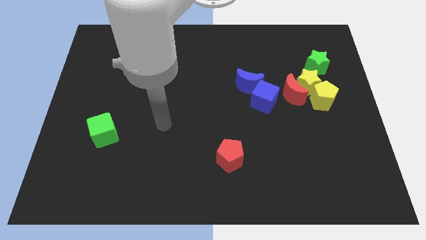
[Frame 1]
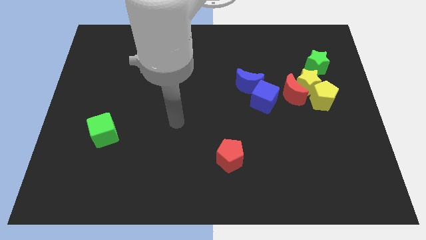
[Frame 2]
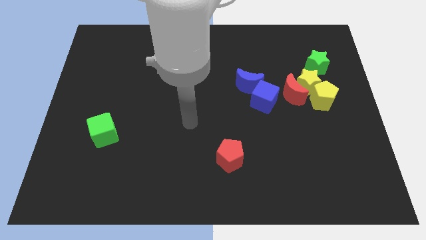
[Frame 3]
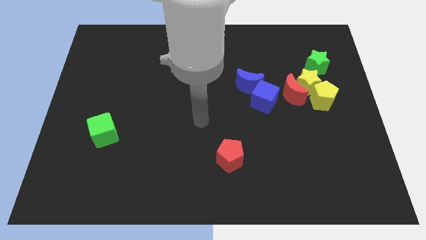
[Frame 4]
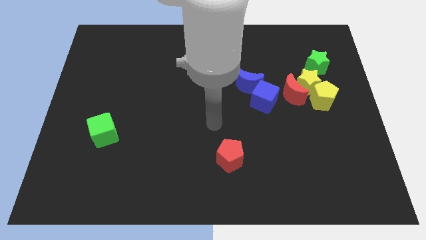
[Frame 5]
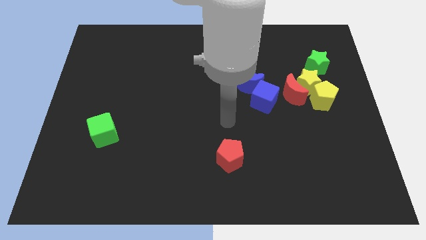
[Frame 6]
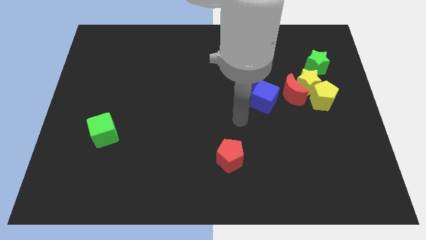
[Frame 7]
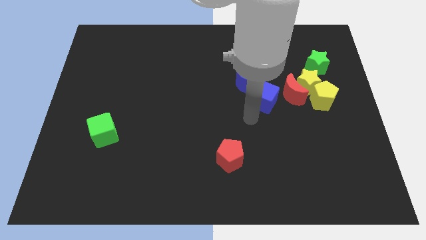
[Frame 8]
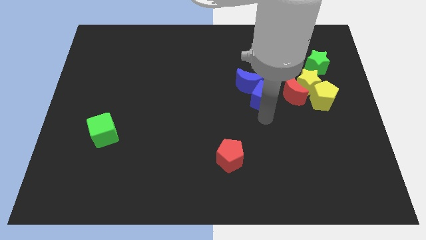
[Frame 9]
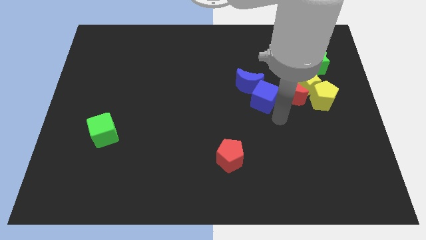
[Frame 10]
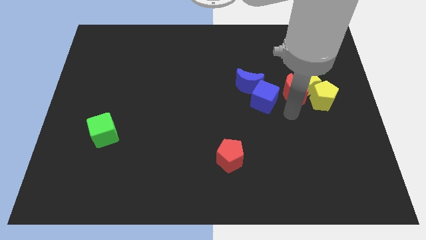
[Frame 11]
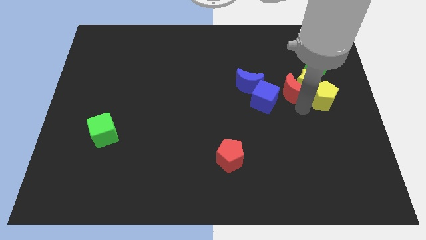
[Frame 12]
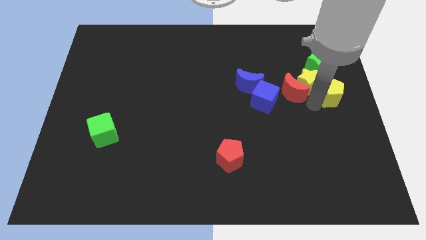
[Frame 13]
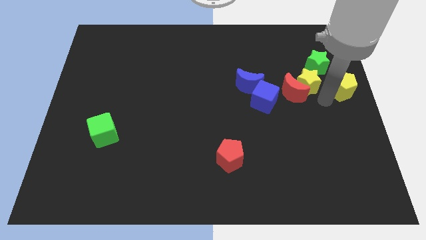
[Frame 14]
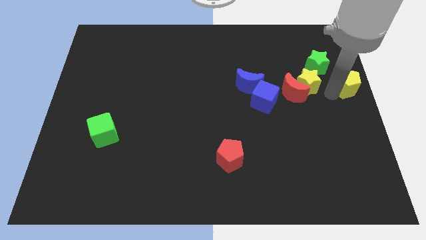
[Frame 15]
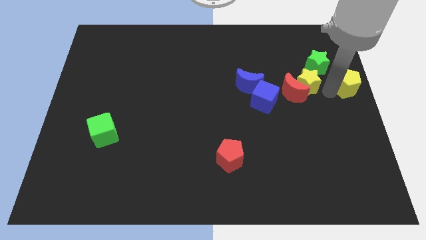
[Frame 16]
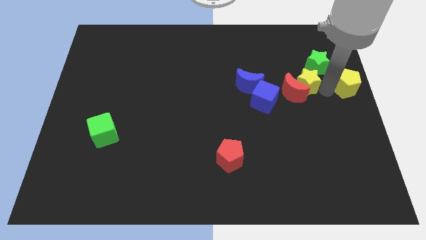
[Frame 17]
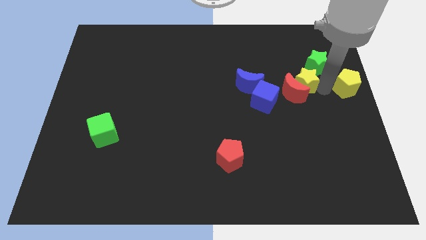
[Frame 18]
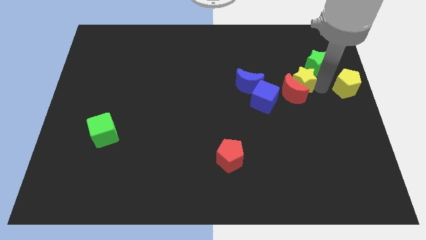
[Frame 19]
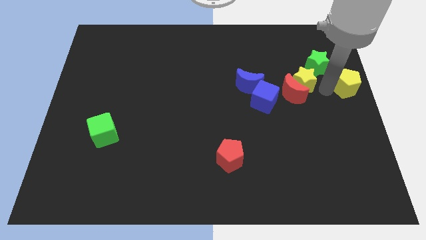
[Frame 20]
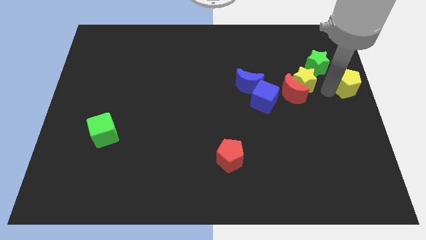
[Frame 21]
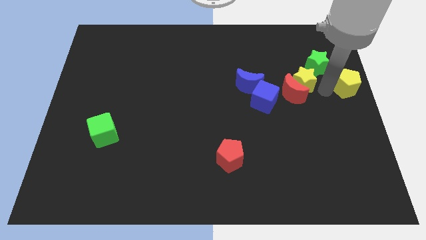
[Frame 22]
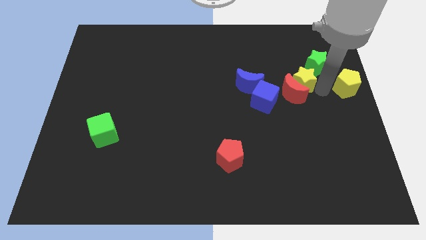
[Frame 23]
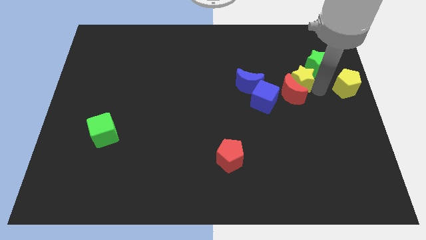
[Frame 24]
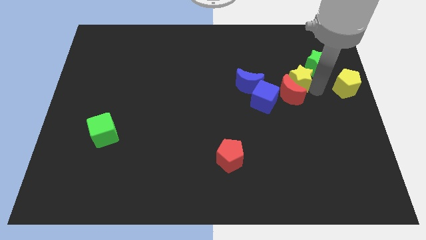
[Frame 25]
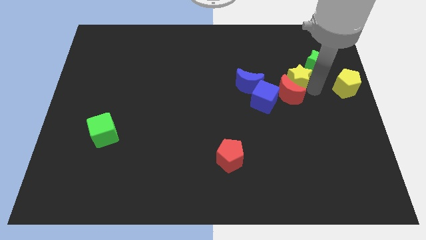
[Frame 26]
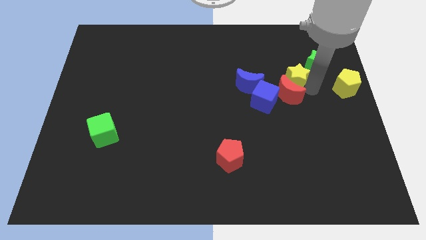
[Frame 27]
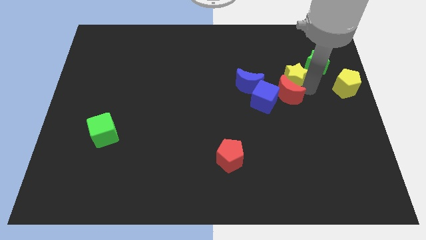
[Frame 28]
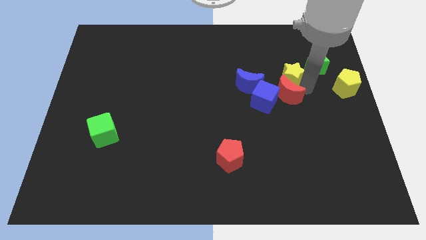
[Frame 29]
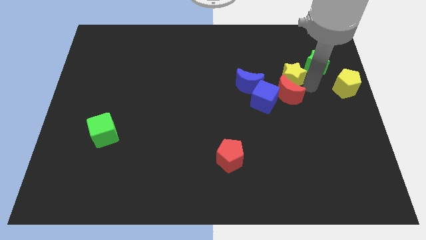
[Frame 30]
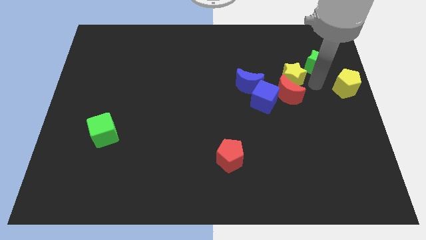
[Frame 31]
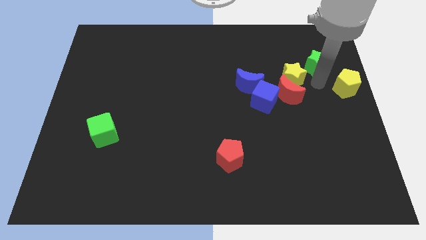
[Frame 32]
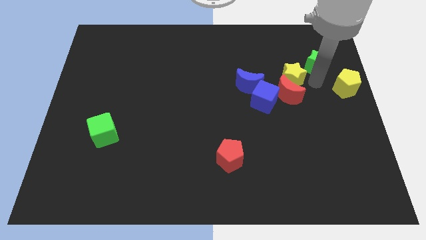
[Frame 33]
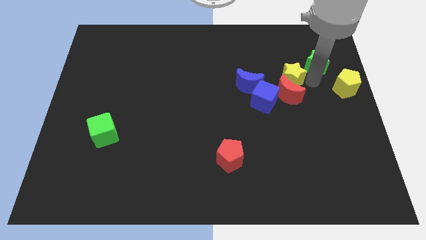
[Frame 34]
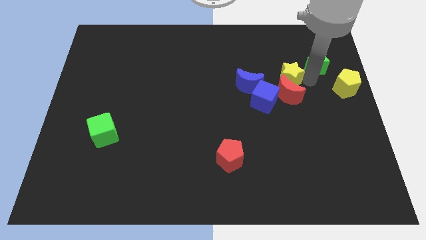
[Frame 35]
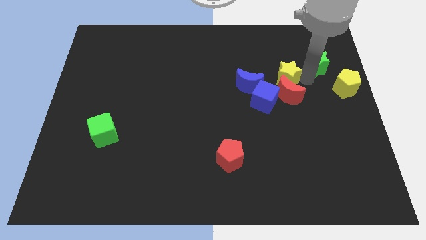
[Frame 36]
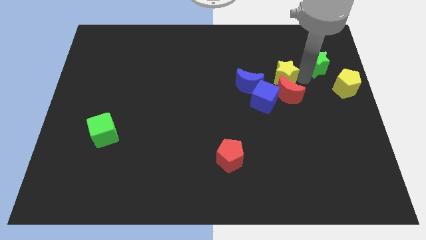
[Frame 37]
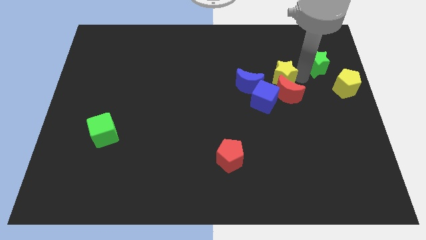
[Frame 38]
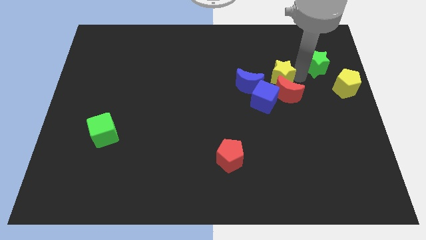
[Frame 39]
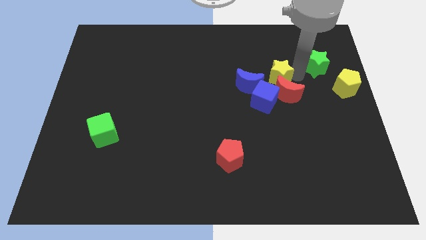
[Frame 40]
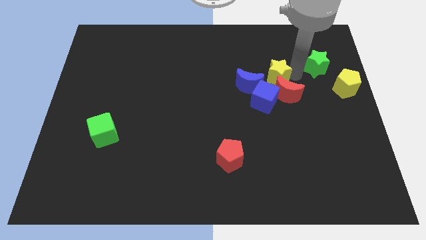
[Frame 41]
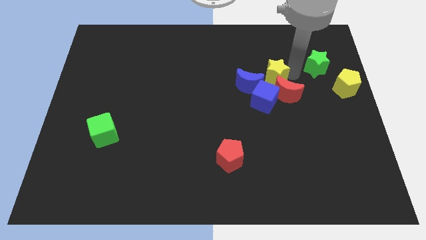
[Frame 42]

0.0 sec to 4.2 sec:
move the yellow star away from the red moon, yellow pentagon, and green star

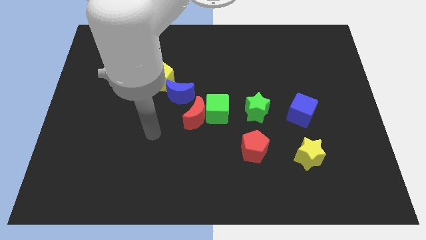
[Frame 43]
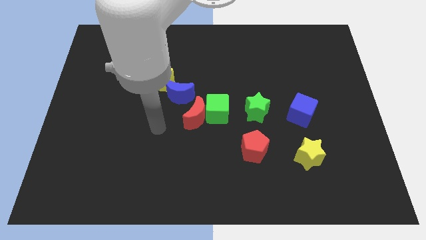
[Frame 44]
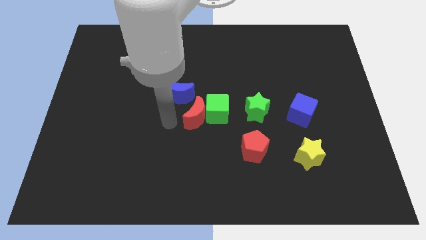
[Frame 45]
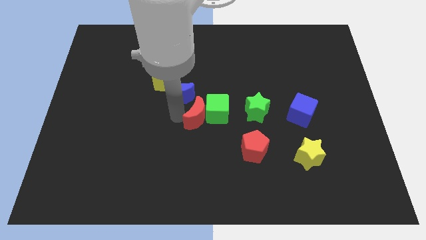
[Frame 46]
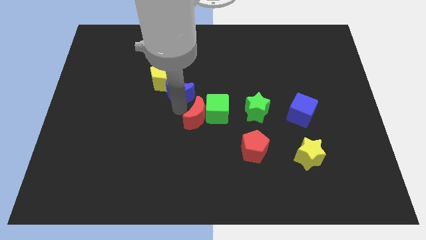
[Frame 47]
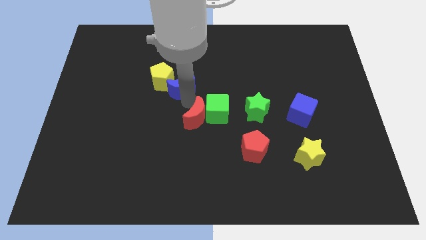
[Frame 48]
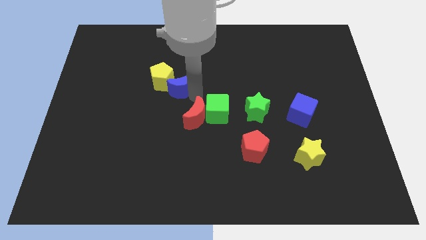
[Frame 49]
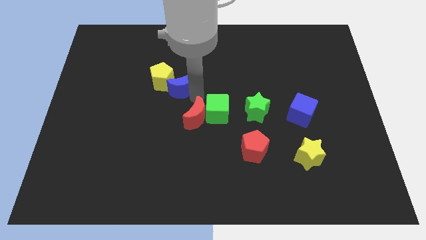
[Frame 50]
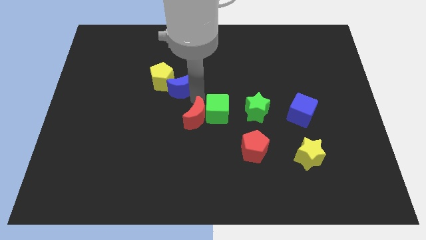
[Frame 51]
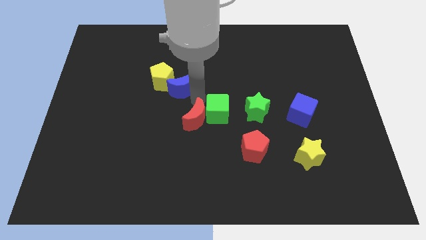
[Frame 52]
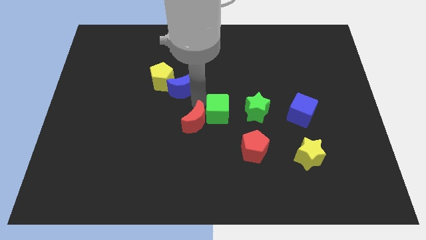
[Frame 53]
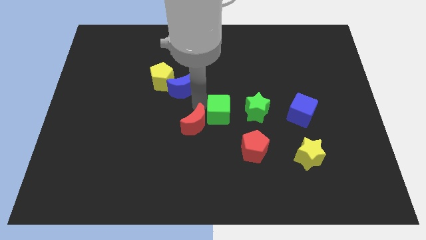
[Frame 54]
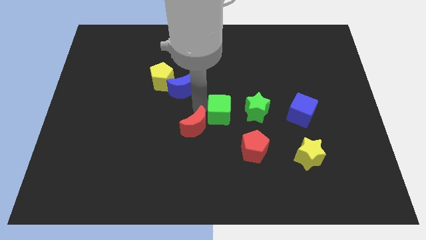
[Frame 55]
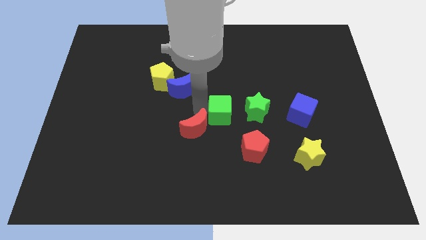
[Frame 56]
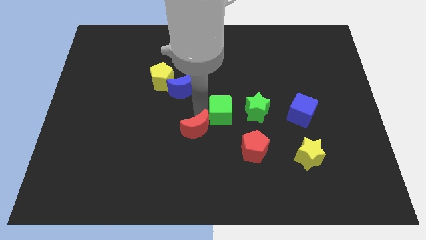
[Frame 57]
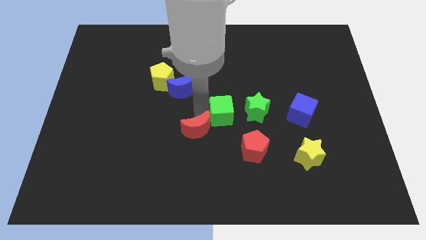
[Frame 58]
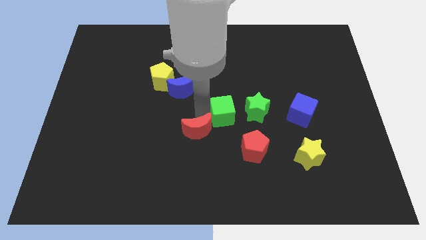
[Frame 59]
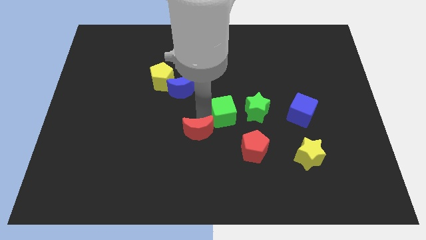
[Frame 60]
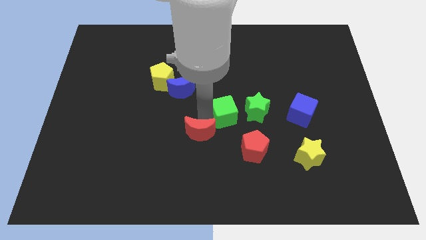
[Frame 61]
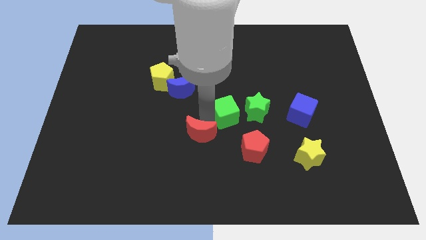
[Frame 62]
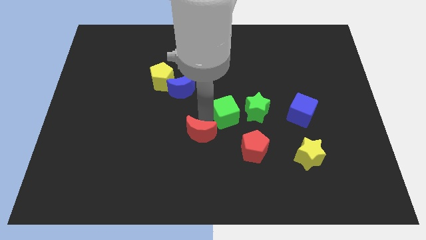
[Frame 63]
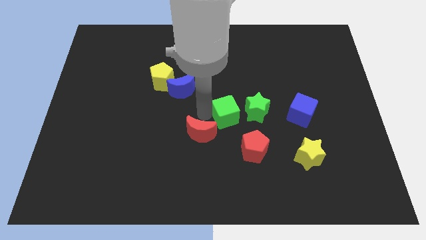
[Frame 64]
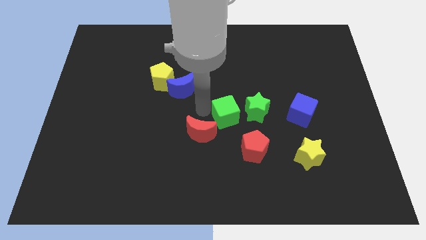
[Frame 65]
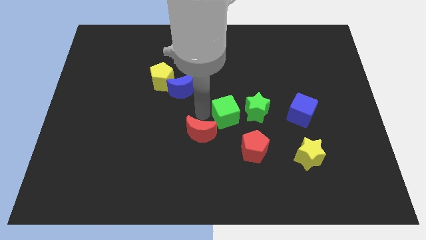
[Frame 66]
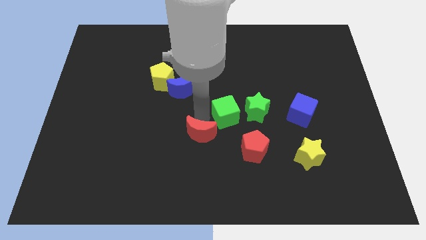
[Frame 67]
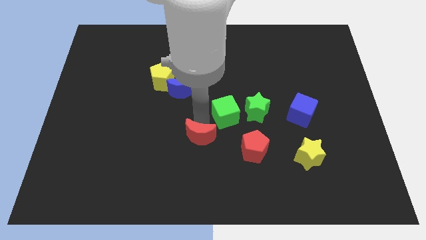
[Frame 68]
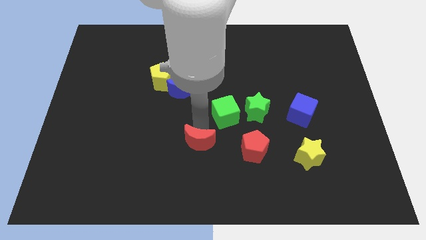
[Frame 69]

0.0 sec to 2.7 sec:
separate the red moon from the green cube and blue moon

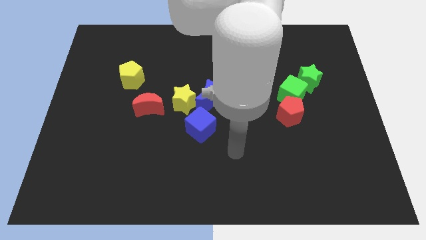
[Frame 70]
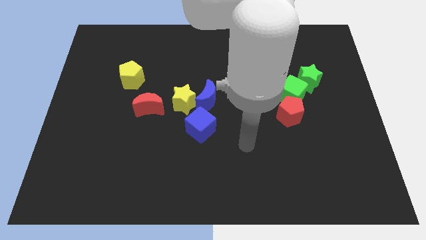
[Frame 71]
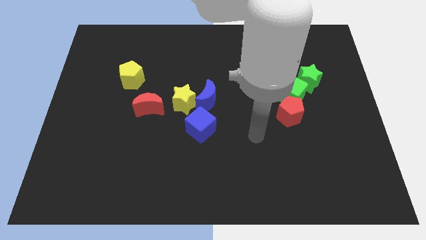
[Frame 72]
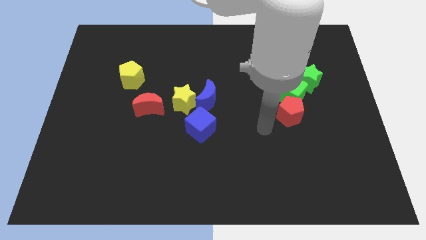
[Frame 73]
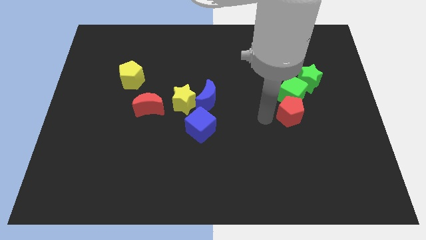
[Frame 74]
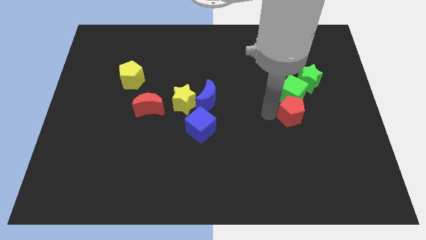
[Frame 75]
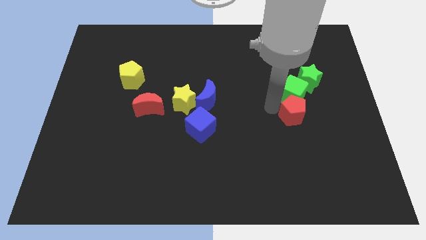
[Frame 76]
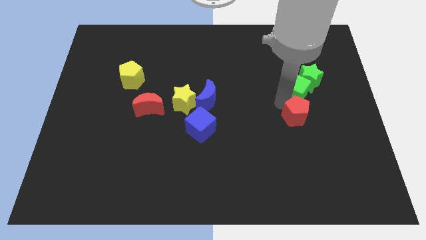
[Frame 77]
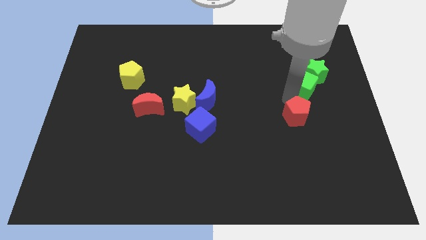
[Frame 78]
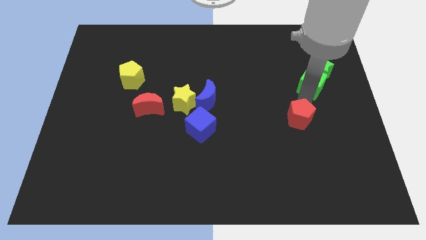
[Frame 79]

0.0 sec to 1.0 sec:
pull the red pentagon apart from the green cube

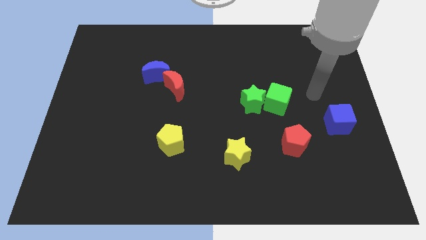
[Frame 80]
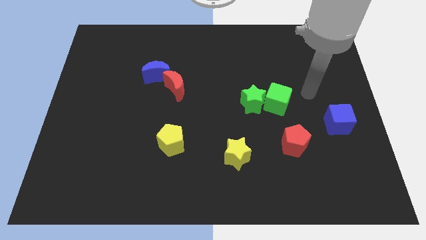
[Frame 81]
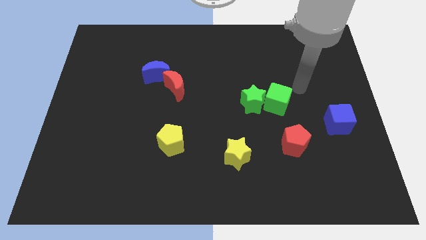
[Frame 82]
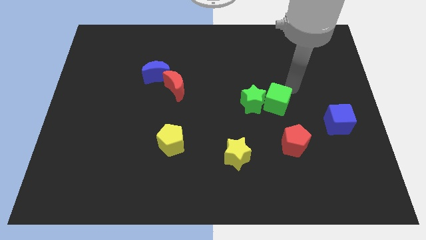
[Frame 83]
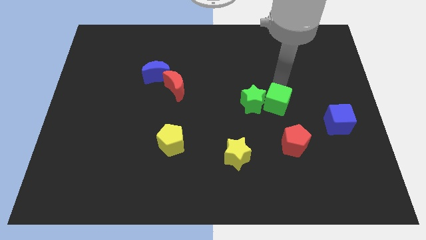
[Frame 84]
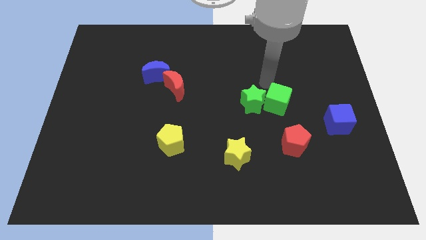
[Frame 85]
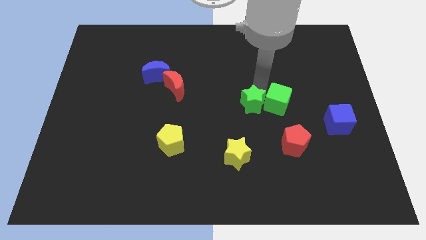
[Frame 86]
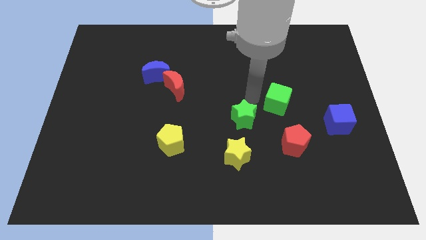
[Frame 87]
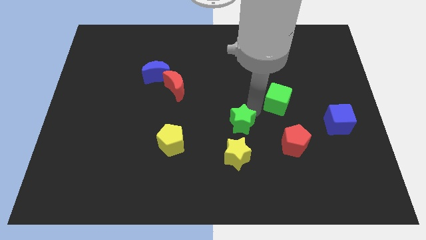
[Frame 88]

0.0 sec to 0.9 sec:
pull the green cube apart from the green star

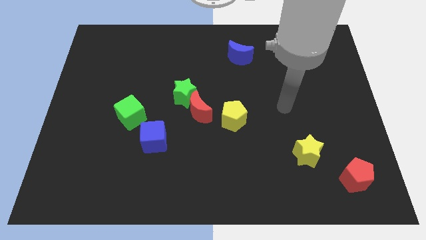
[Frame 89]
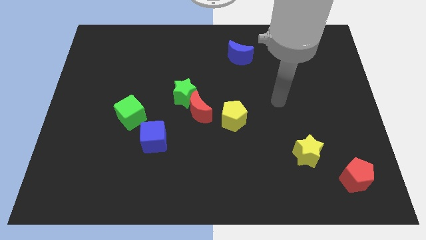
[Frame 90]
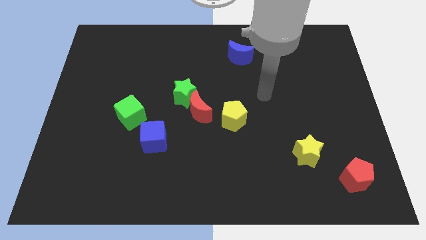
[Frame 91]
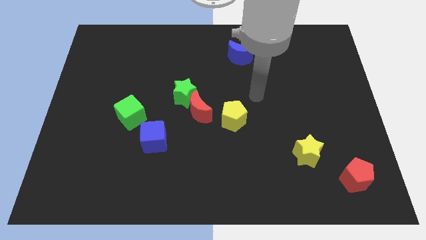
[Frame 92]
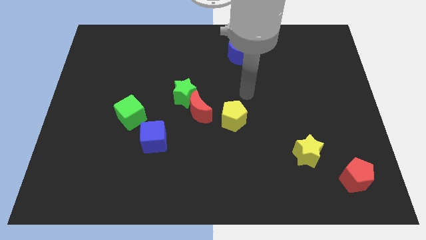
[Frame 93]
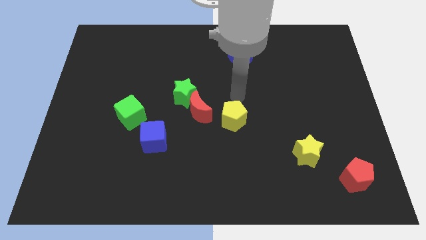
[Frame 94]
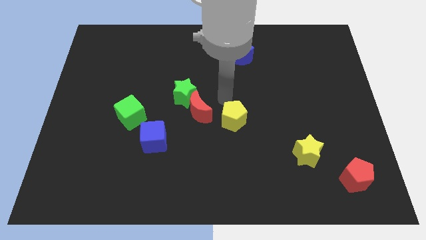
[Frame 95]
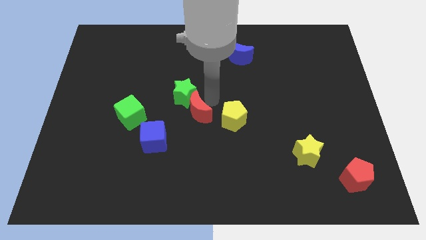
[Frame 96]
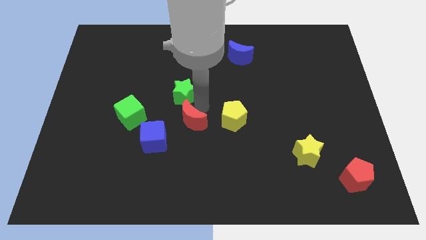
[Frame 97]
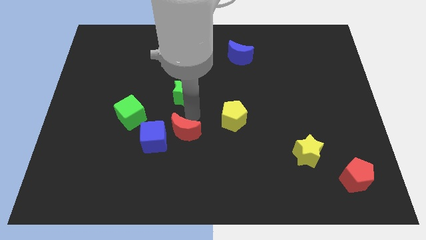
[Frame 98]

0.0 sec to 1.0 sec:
move the green star away from the red moon
